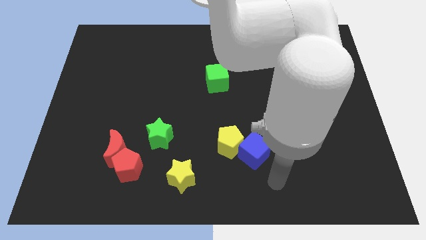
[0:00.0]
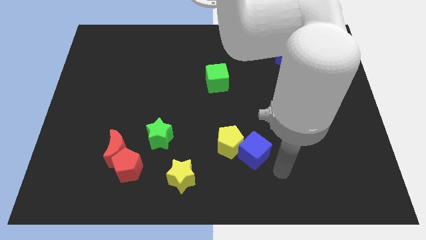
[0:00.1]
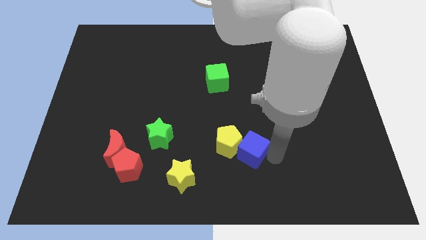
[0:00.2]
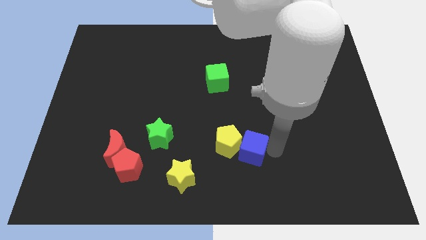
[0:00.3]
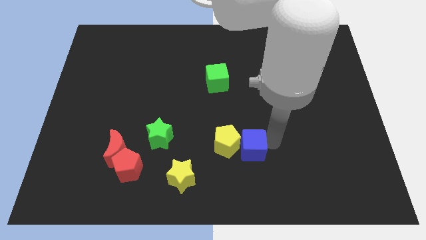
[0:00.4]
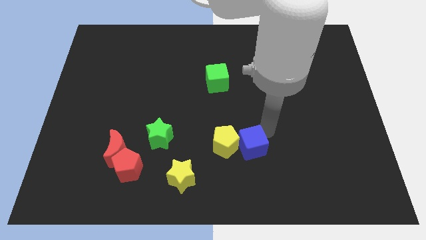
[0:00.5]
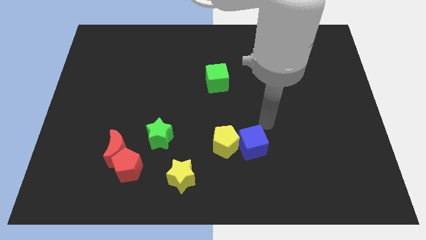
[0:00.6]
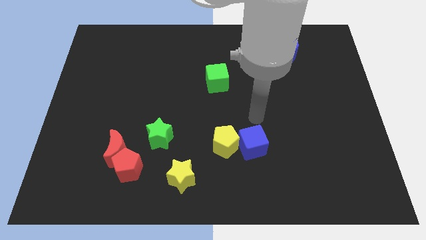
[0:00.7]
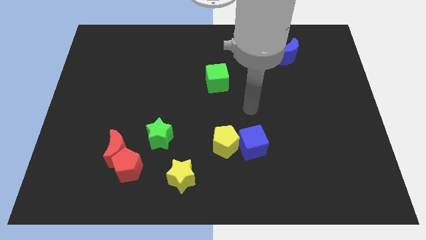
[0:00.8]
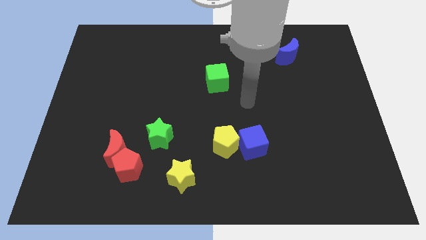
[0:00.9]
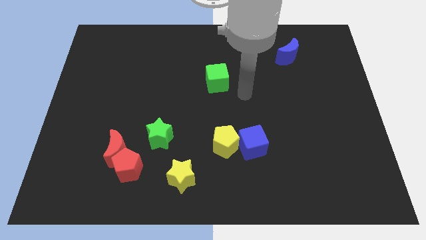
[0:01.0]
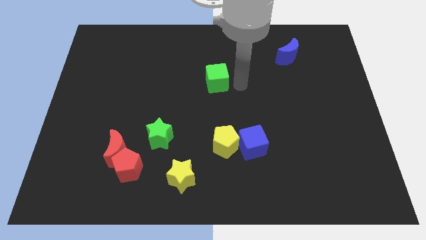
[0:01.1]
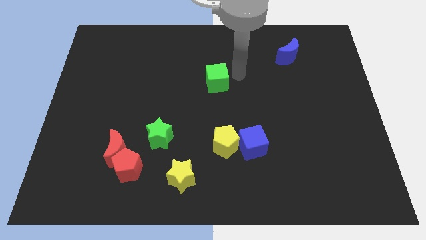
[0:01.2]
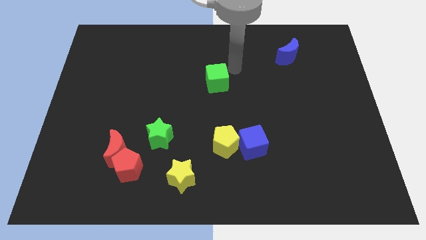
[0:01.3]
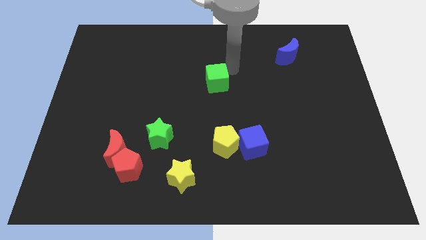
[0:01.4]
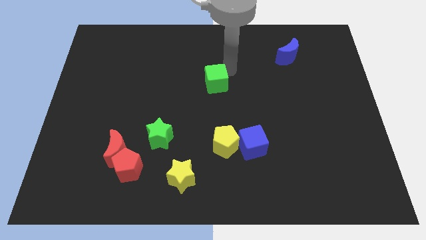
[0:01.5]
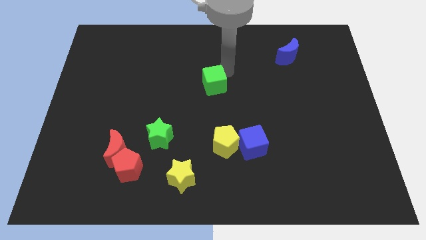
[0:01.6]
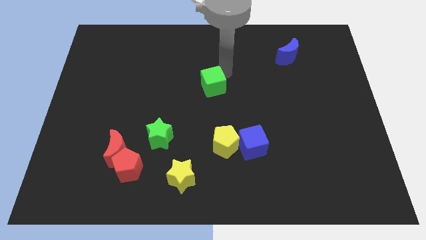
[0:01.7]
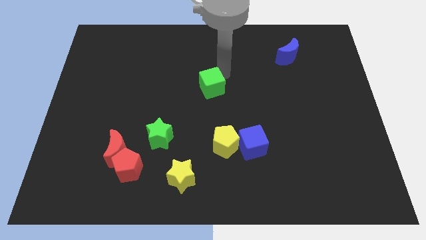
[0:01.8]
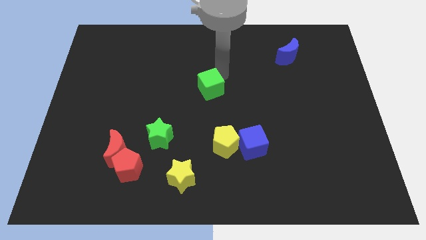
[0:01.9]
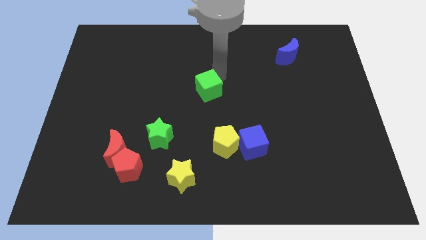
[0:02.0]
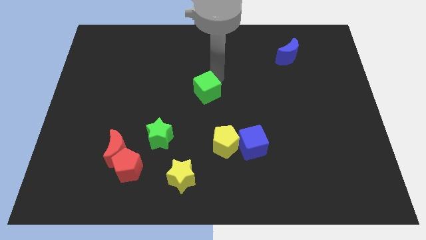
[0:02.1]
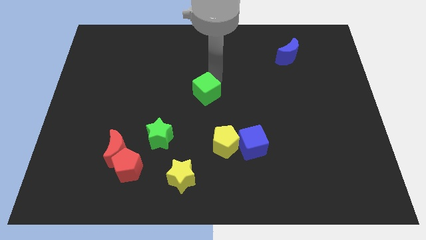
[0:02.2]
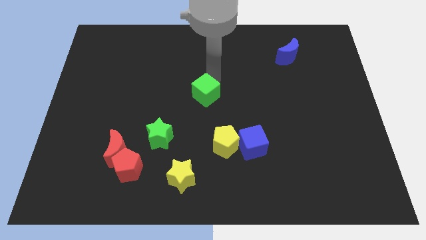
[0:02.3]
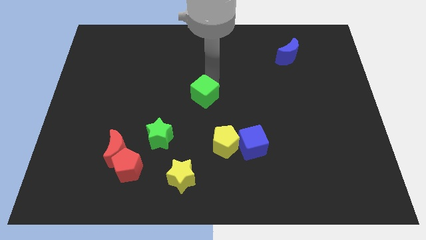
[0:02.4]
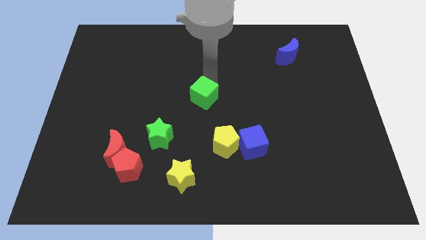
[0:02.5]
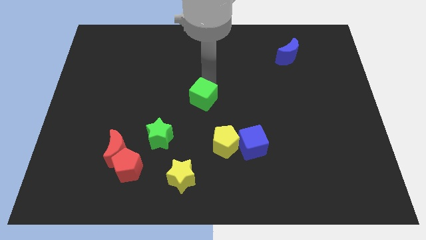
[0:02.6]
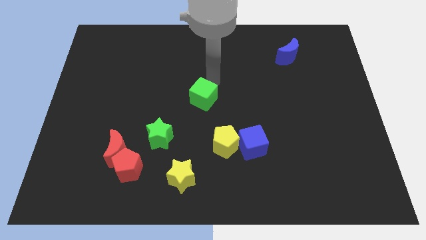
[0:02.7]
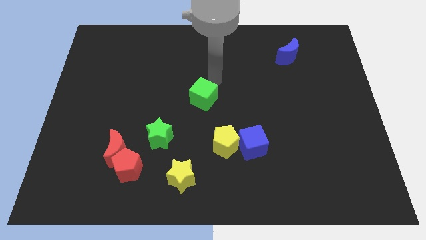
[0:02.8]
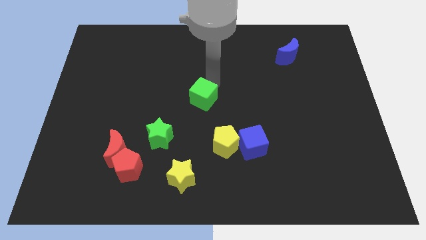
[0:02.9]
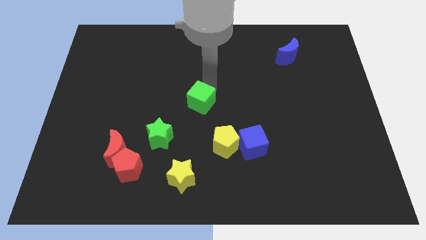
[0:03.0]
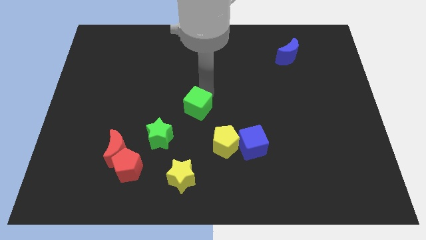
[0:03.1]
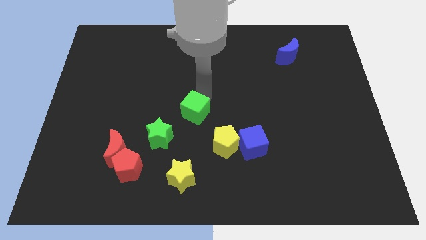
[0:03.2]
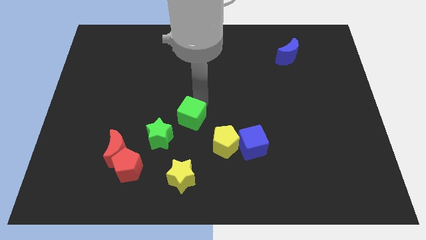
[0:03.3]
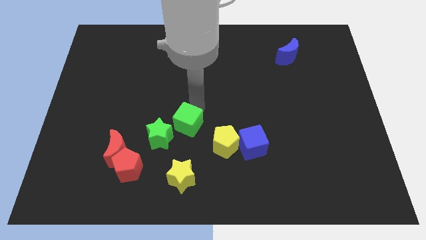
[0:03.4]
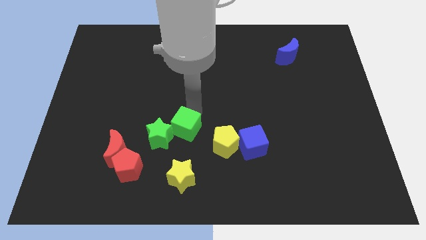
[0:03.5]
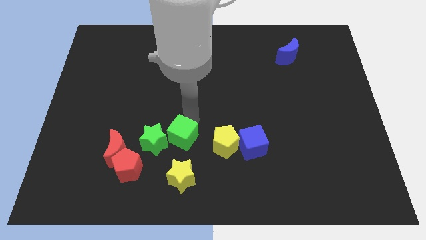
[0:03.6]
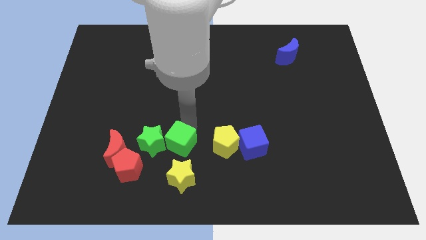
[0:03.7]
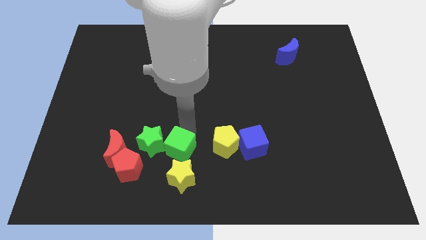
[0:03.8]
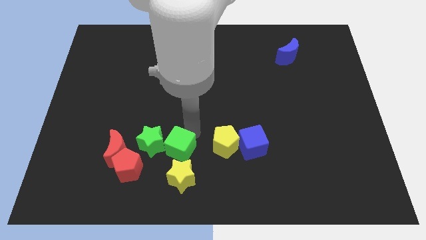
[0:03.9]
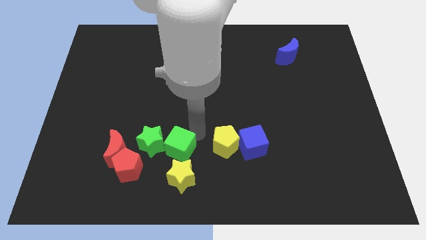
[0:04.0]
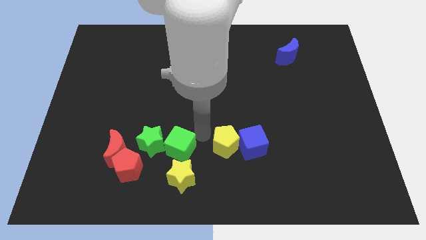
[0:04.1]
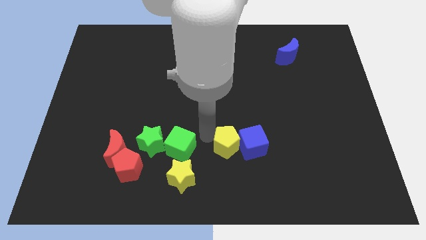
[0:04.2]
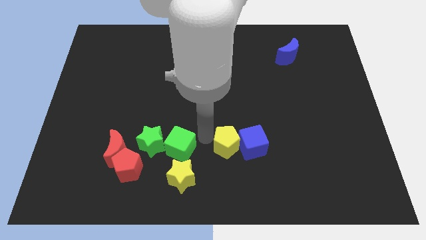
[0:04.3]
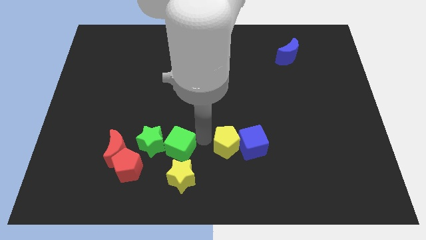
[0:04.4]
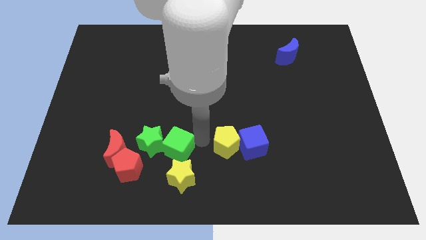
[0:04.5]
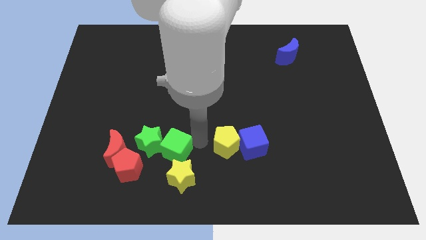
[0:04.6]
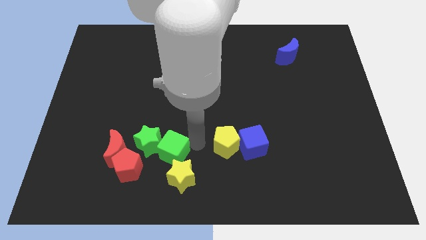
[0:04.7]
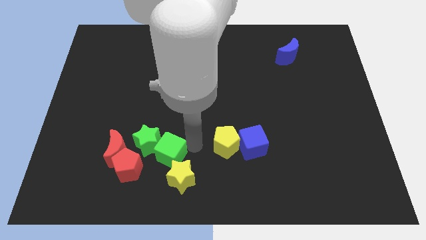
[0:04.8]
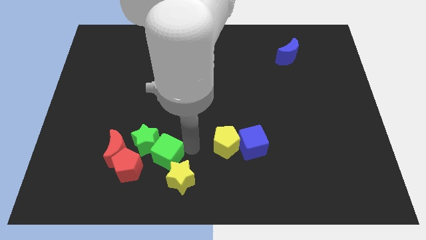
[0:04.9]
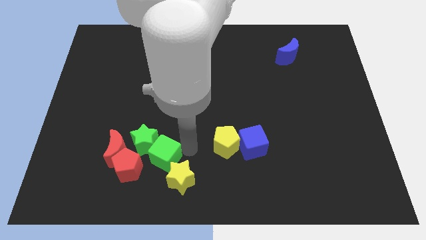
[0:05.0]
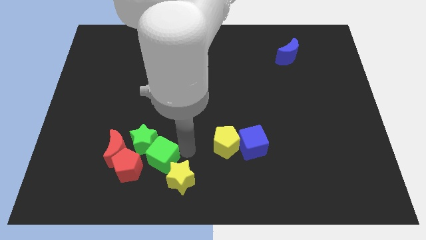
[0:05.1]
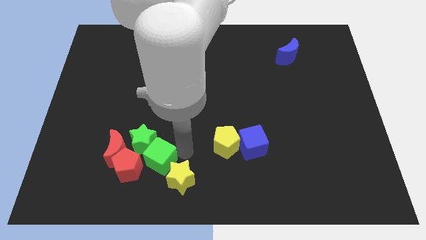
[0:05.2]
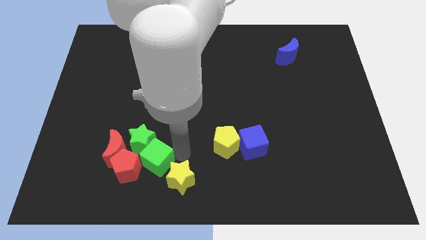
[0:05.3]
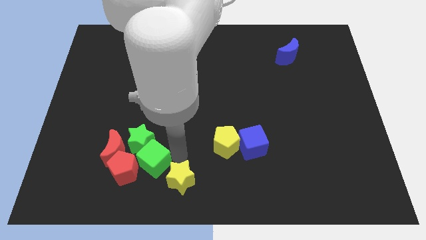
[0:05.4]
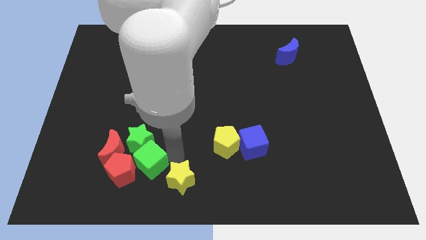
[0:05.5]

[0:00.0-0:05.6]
slide the green cube close to the red pentagon

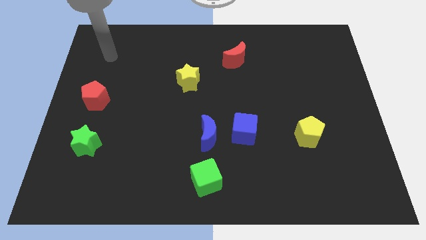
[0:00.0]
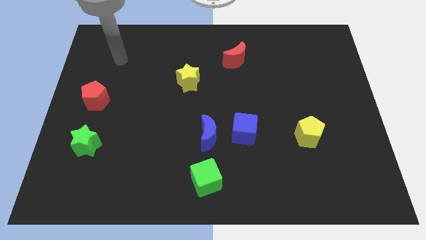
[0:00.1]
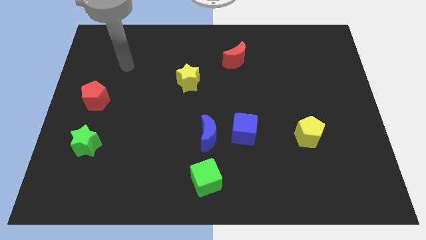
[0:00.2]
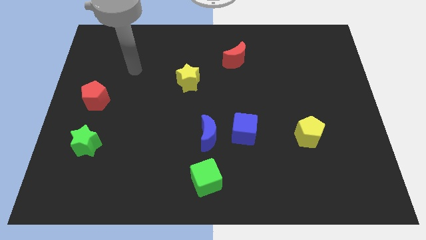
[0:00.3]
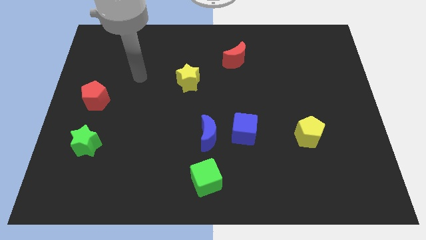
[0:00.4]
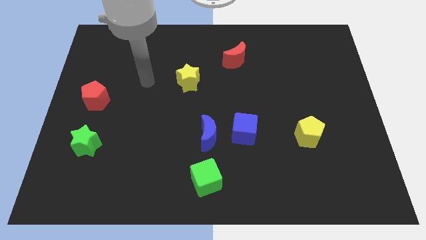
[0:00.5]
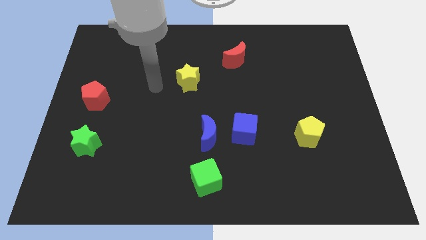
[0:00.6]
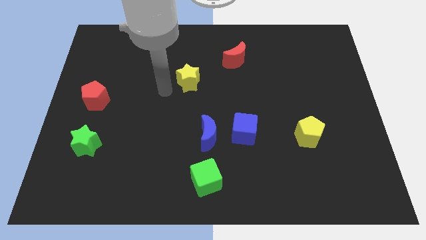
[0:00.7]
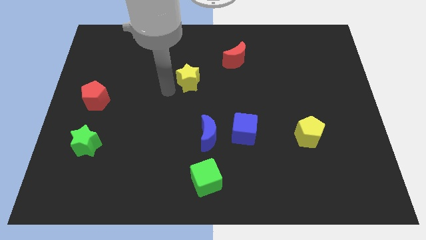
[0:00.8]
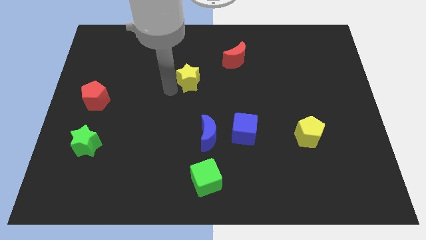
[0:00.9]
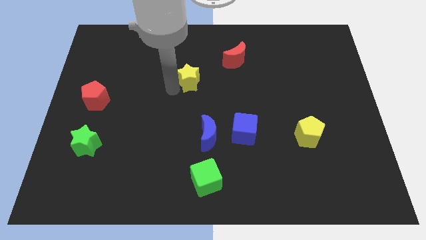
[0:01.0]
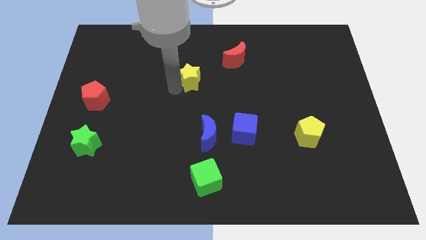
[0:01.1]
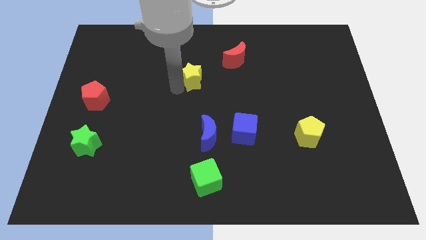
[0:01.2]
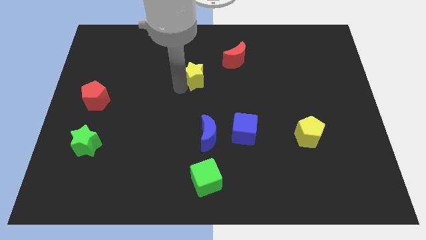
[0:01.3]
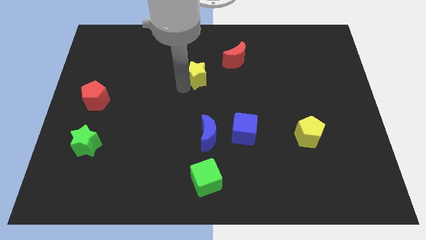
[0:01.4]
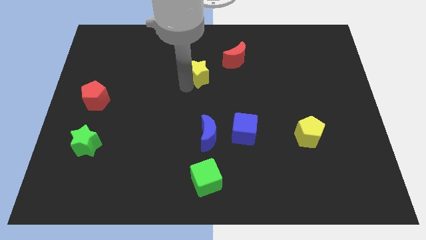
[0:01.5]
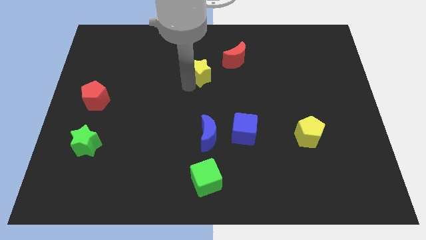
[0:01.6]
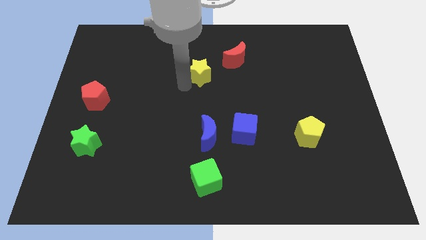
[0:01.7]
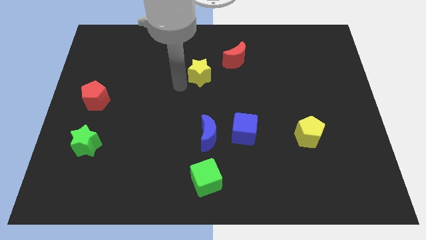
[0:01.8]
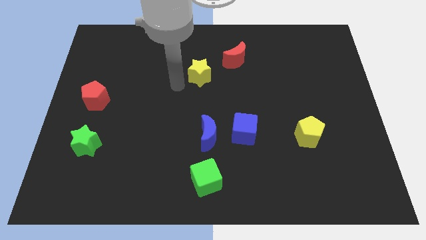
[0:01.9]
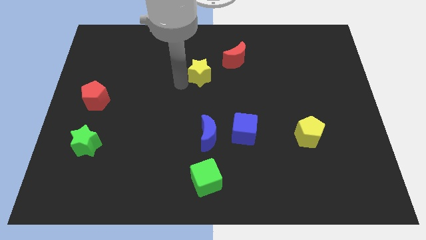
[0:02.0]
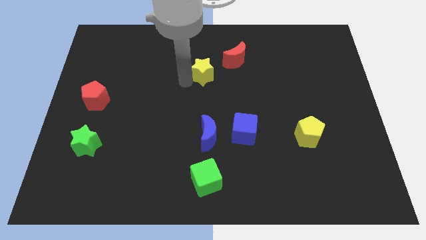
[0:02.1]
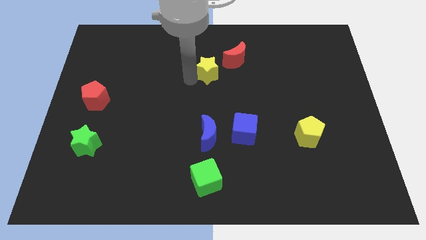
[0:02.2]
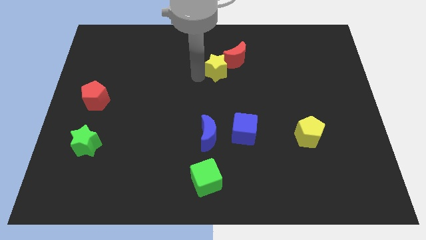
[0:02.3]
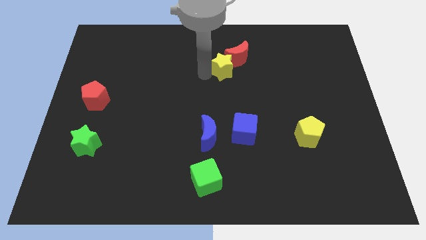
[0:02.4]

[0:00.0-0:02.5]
move the yellow star next to the red moon
